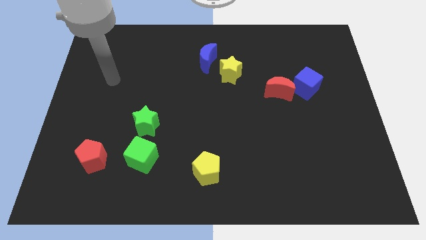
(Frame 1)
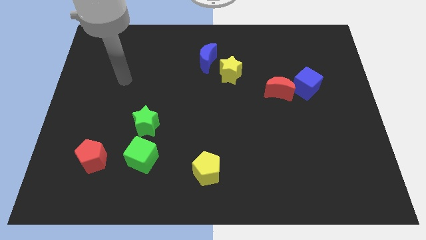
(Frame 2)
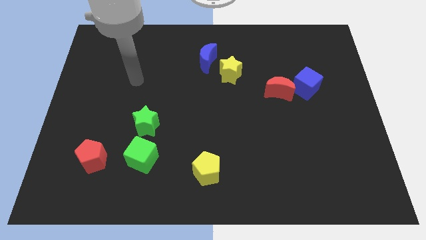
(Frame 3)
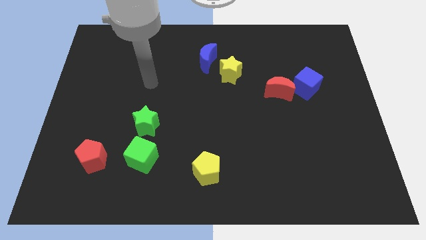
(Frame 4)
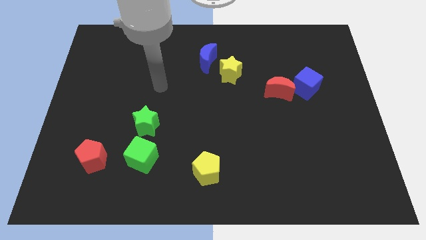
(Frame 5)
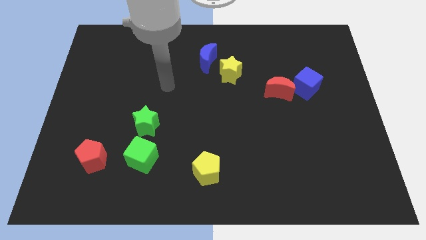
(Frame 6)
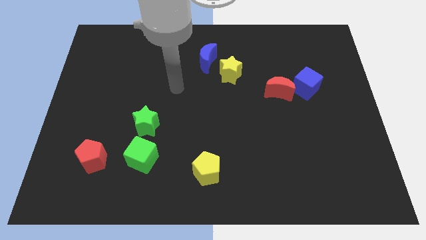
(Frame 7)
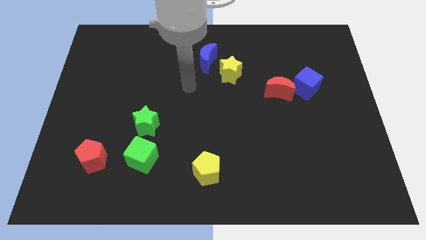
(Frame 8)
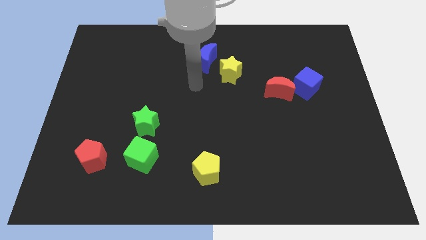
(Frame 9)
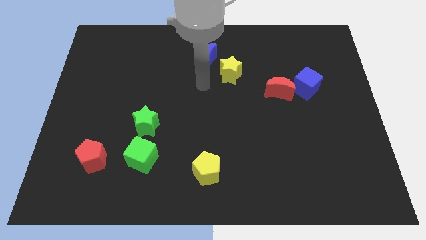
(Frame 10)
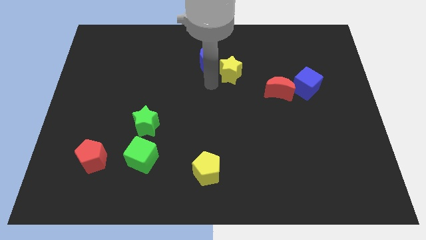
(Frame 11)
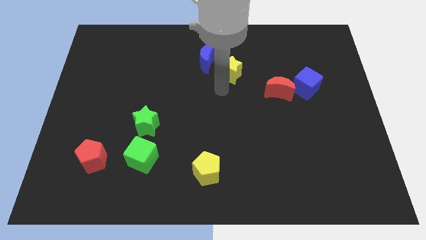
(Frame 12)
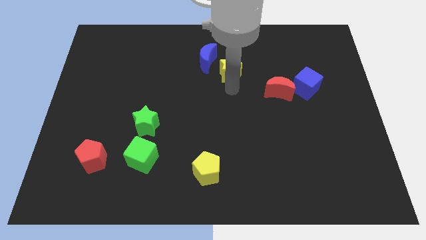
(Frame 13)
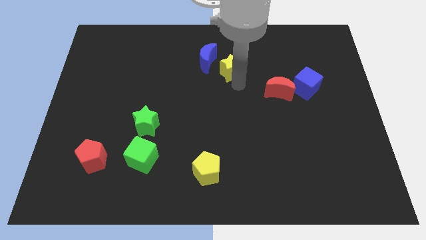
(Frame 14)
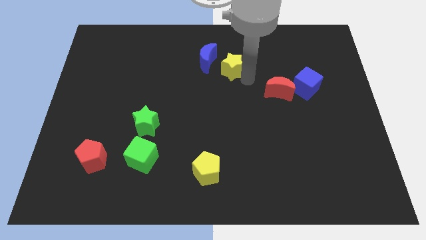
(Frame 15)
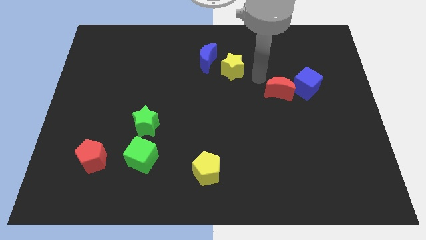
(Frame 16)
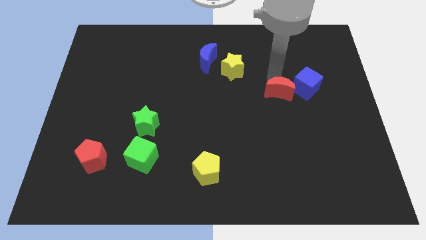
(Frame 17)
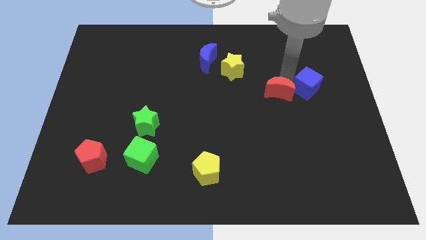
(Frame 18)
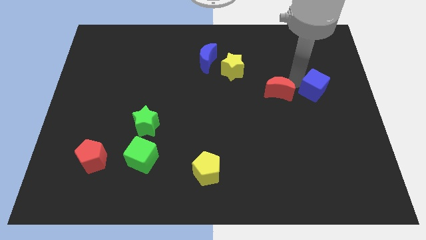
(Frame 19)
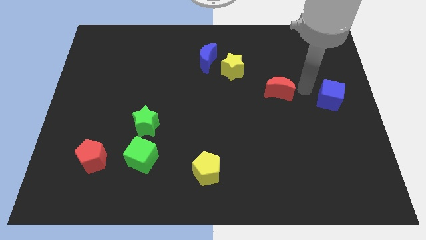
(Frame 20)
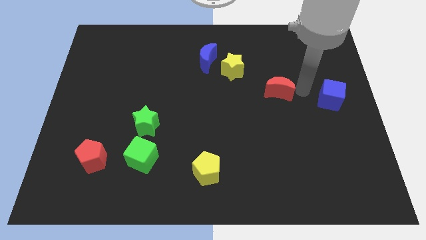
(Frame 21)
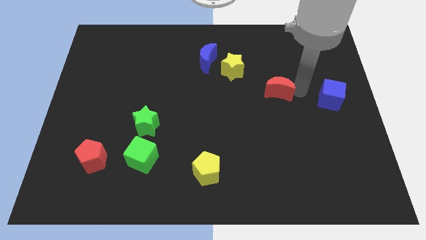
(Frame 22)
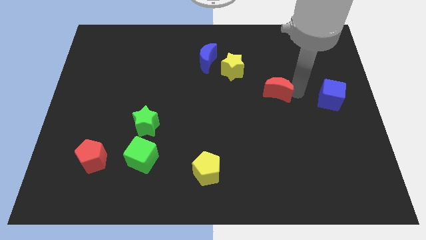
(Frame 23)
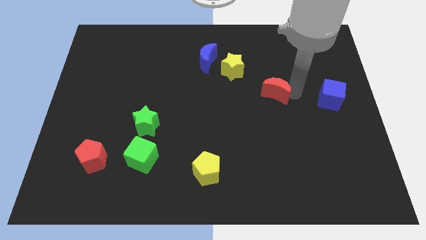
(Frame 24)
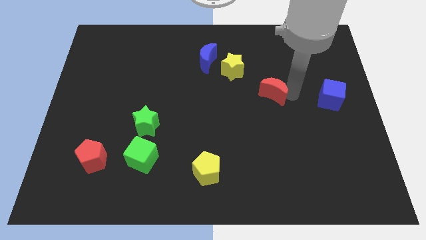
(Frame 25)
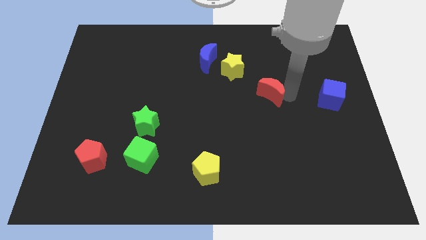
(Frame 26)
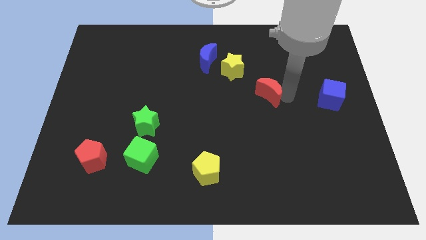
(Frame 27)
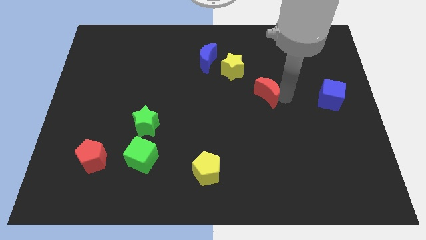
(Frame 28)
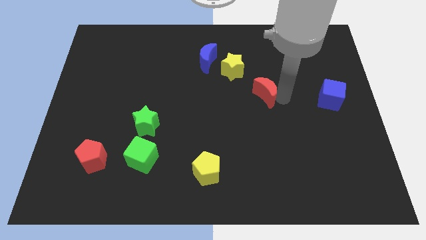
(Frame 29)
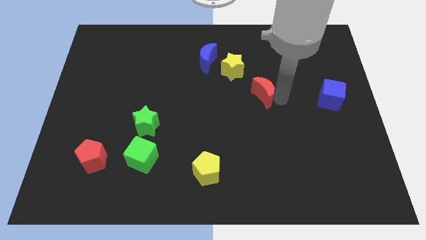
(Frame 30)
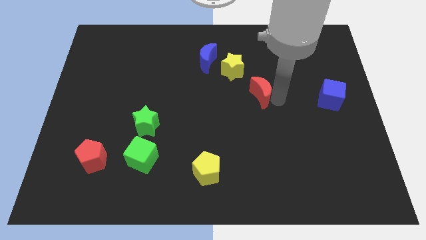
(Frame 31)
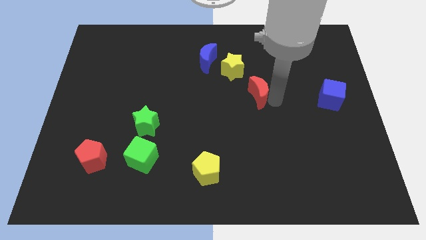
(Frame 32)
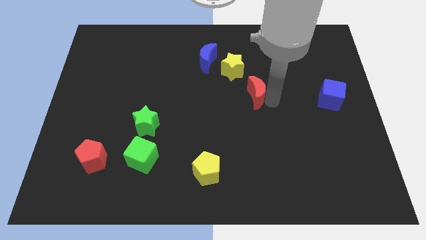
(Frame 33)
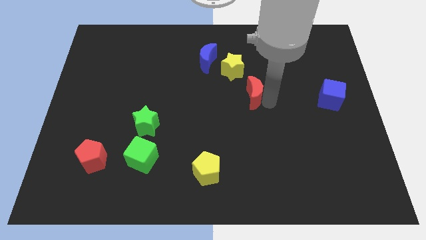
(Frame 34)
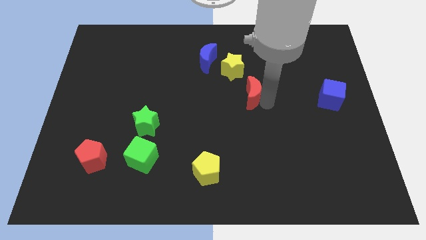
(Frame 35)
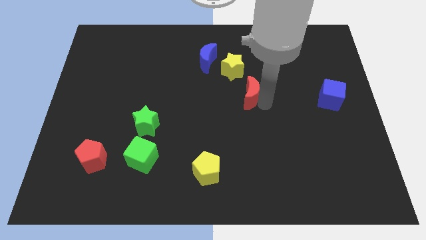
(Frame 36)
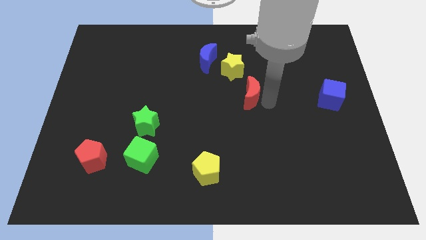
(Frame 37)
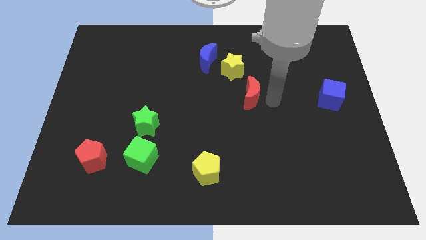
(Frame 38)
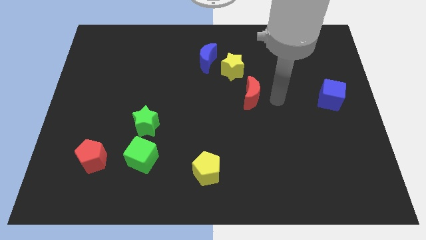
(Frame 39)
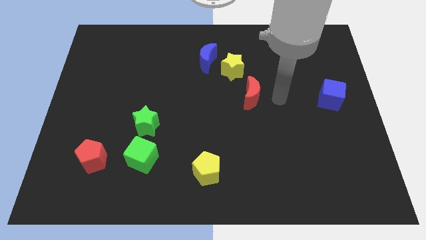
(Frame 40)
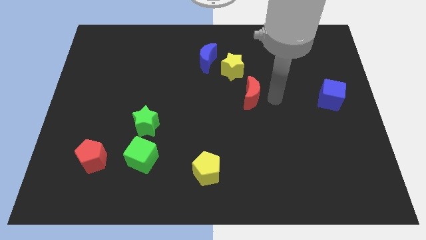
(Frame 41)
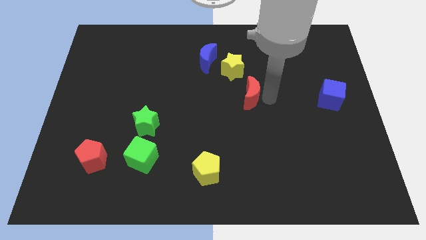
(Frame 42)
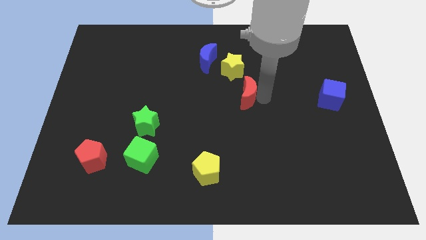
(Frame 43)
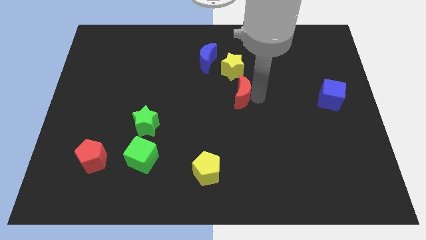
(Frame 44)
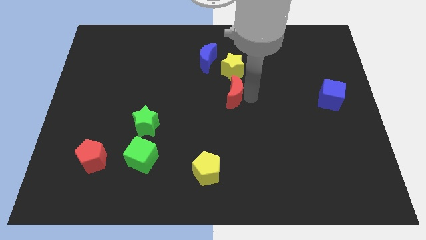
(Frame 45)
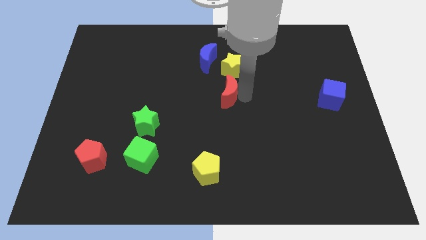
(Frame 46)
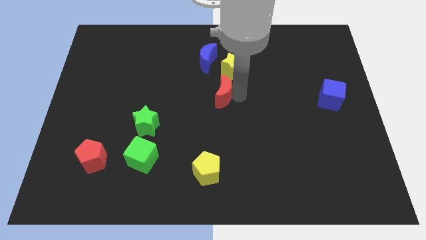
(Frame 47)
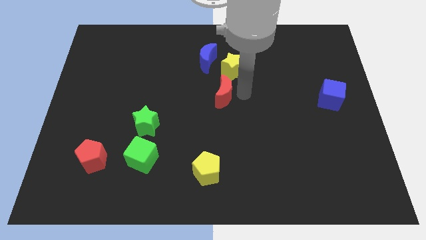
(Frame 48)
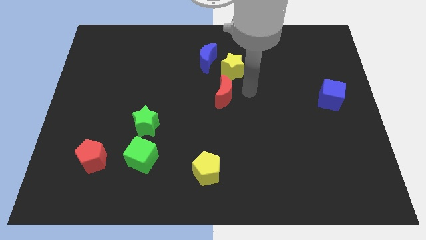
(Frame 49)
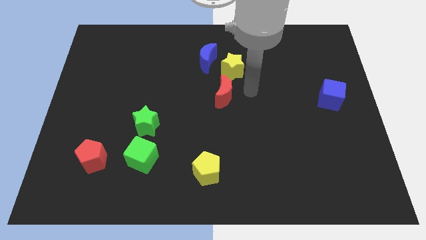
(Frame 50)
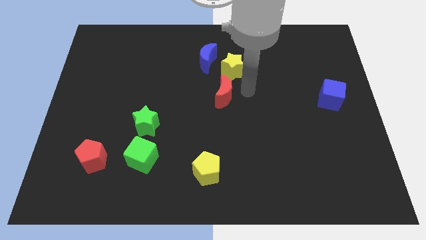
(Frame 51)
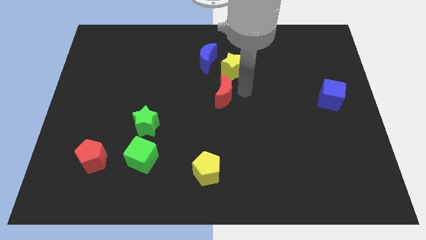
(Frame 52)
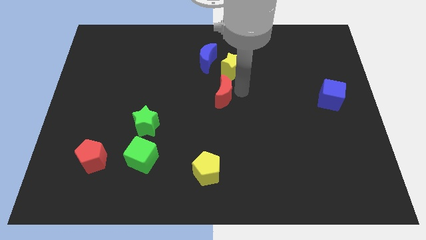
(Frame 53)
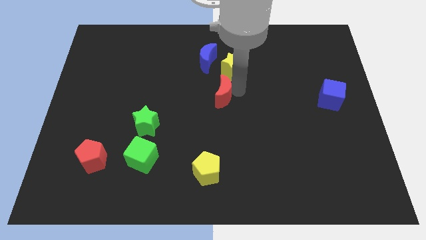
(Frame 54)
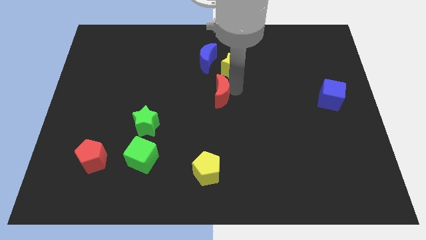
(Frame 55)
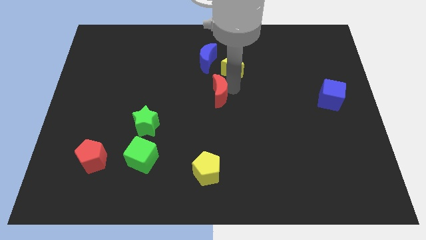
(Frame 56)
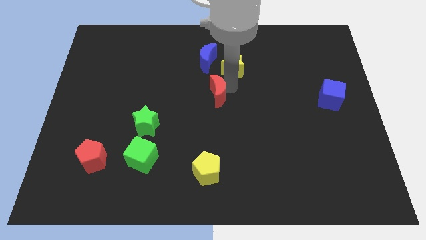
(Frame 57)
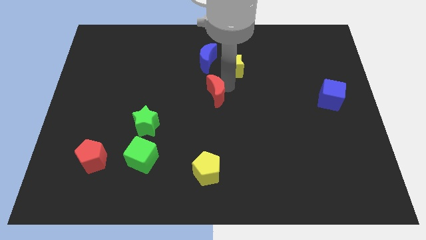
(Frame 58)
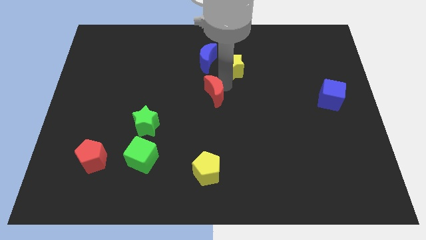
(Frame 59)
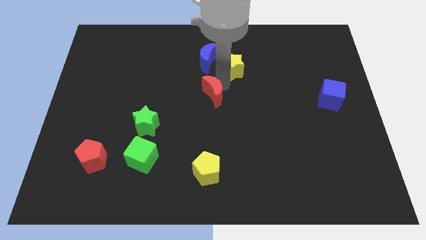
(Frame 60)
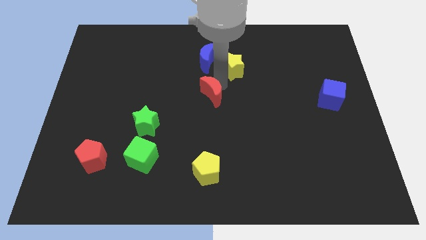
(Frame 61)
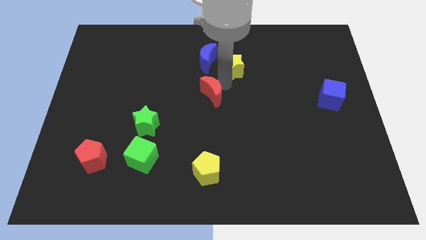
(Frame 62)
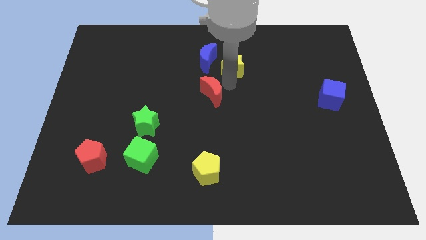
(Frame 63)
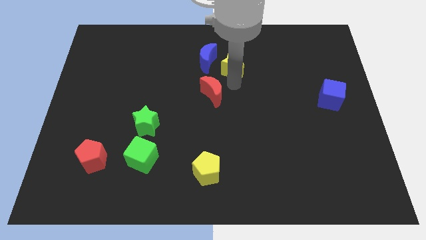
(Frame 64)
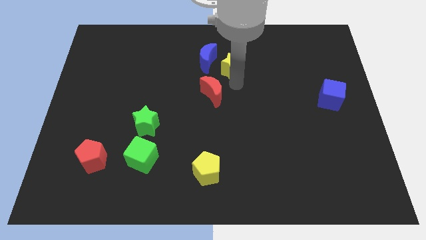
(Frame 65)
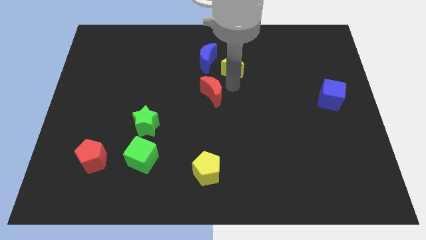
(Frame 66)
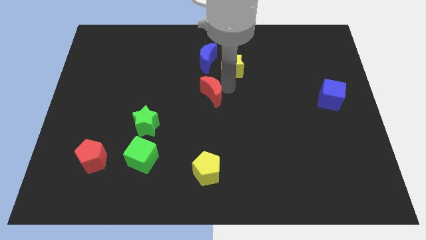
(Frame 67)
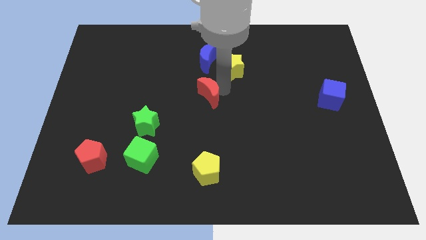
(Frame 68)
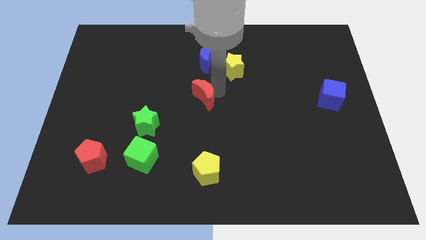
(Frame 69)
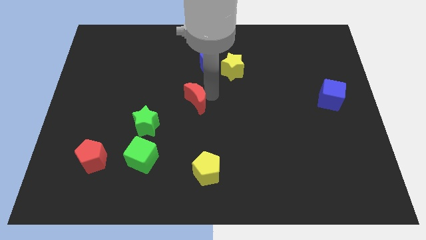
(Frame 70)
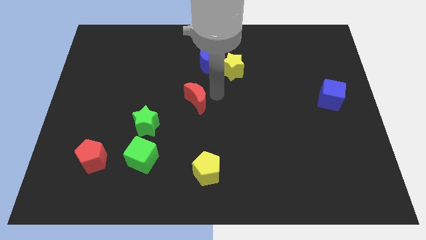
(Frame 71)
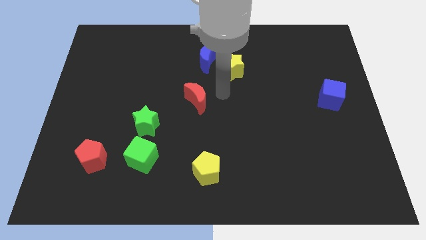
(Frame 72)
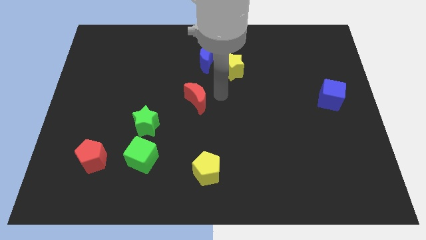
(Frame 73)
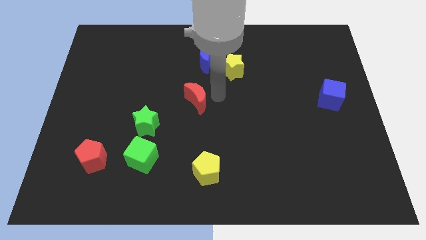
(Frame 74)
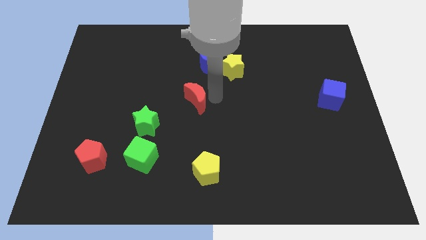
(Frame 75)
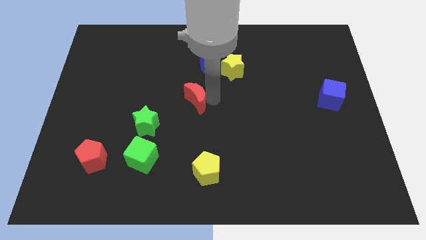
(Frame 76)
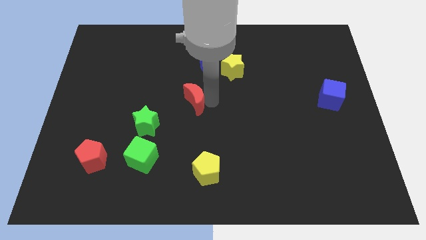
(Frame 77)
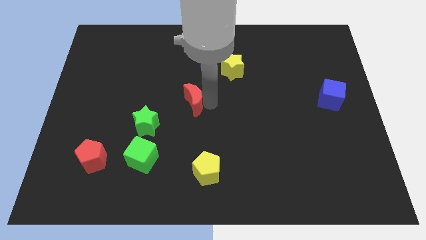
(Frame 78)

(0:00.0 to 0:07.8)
move the red moon to the top right of the green star
